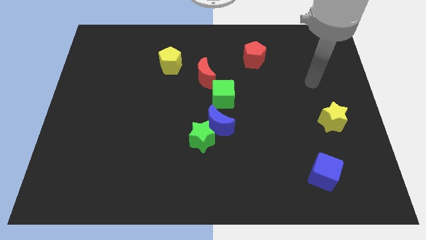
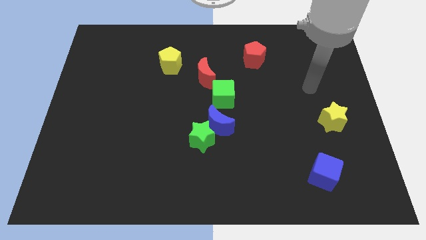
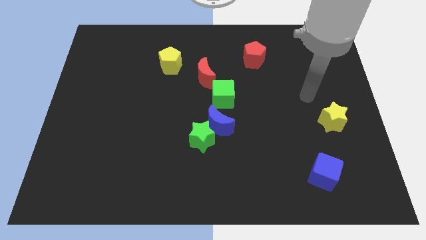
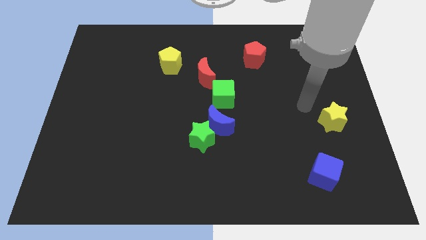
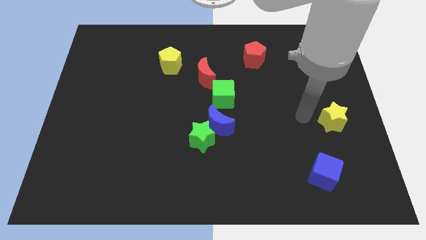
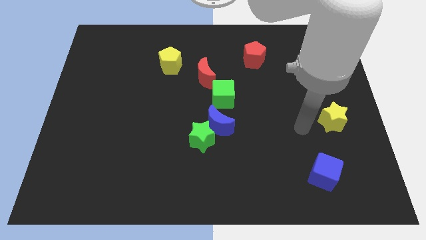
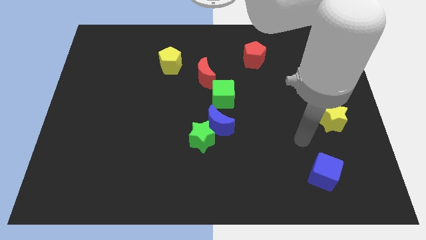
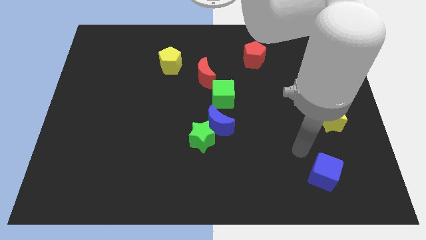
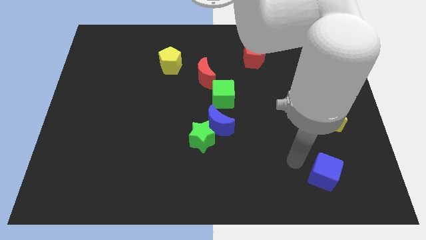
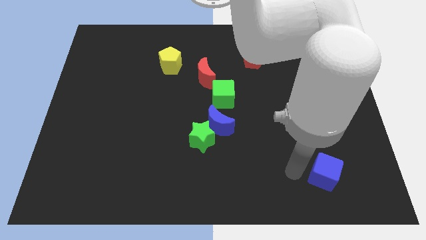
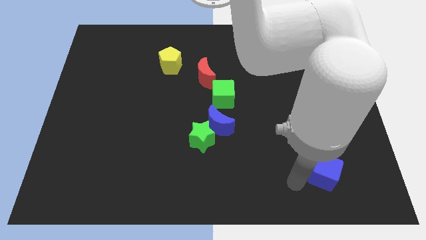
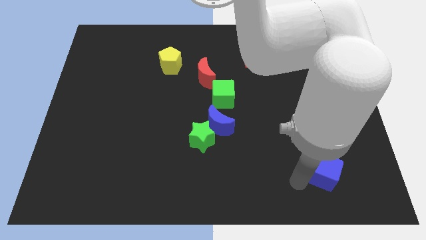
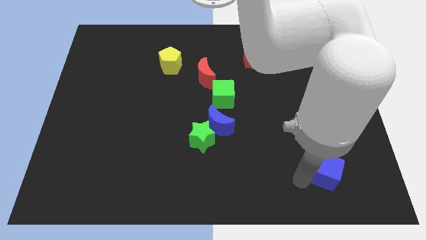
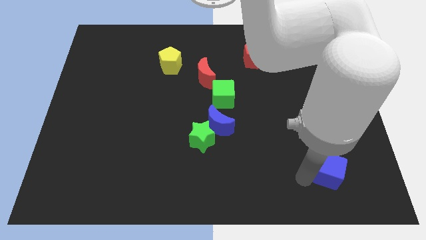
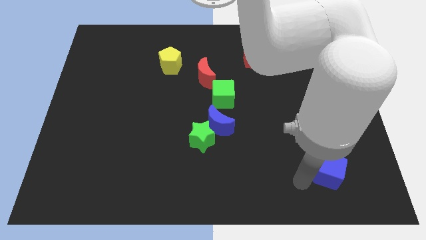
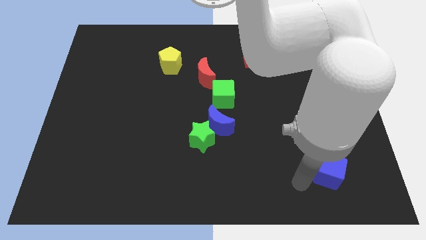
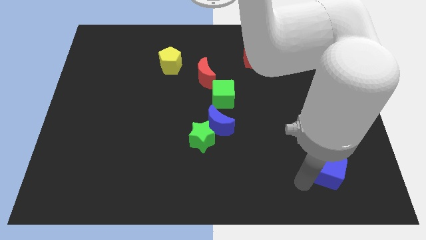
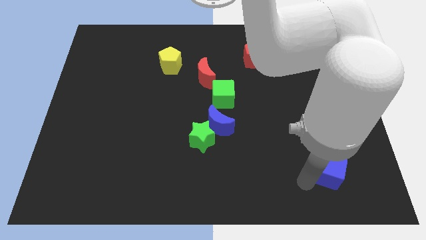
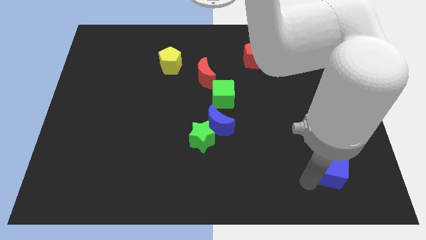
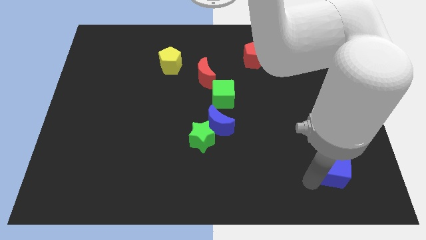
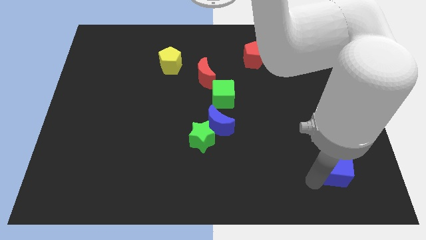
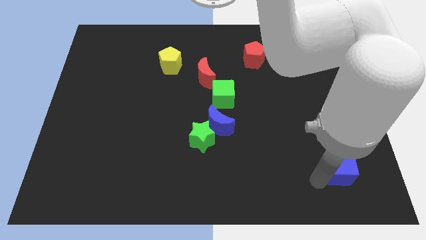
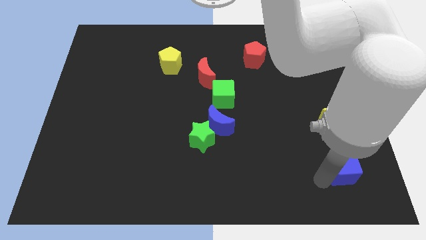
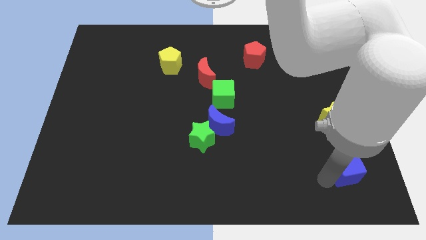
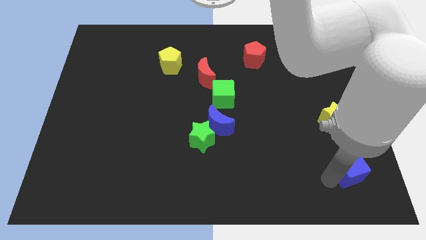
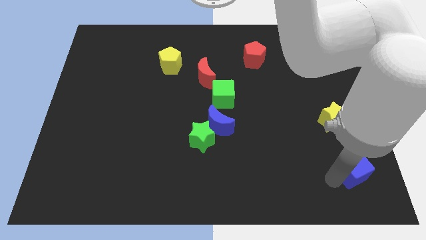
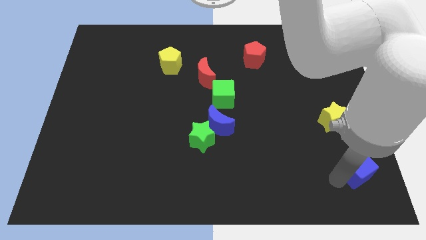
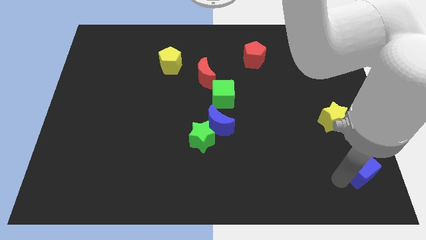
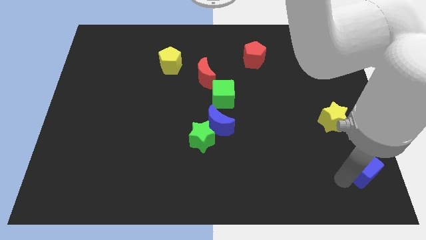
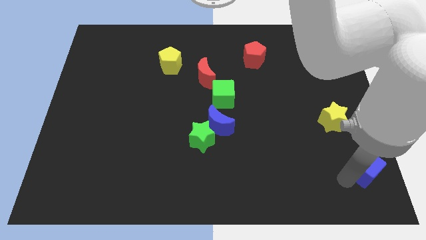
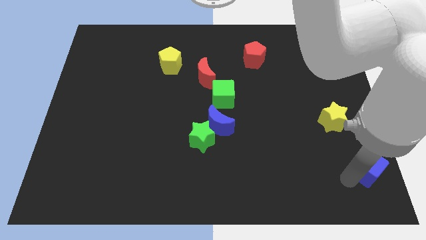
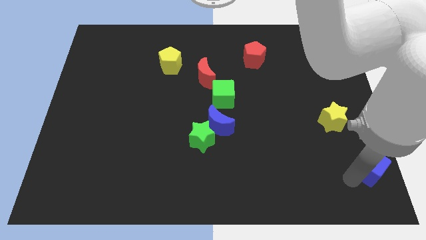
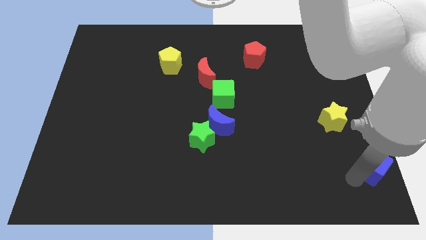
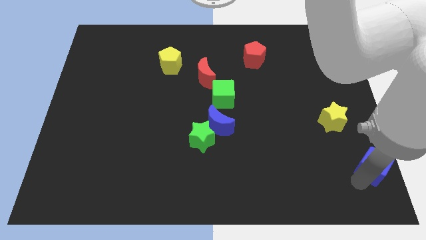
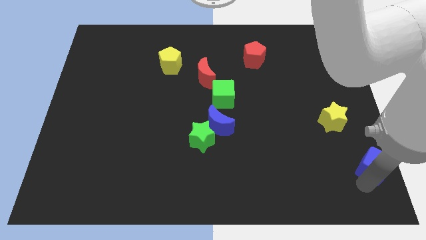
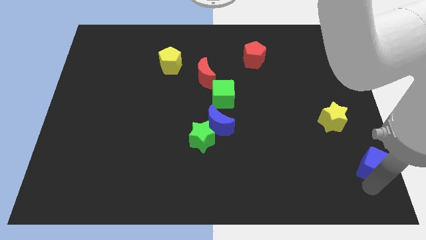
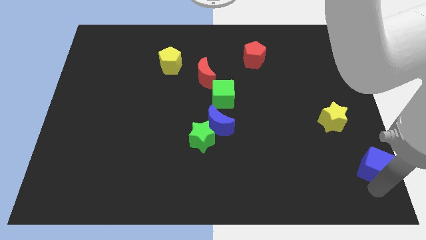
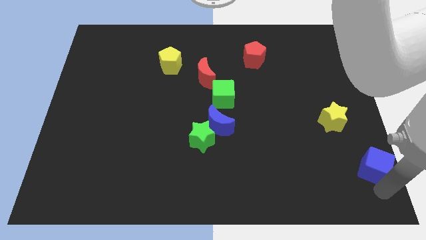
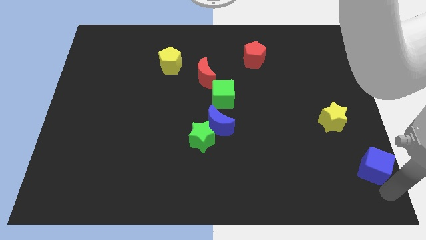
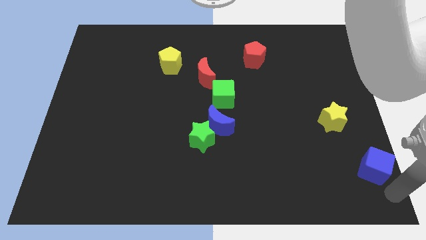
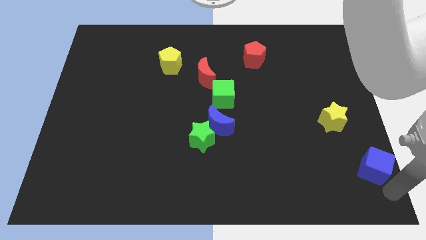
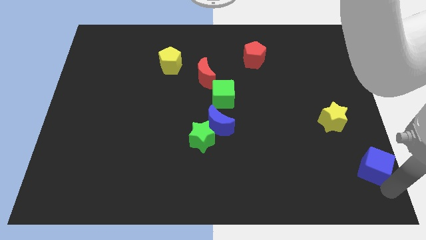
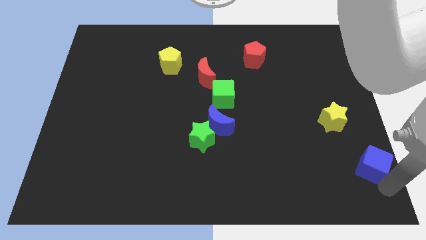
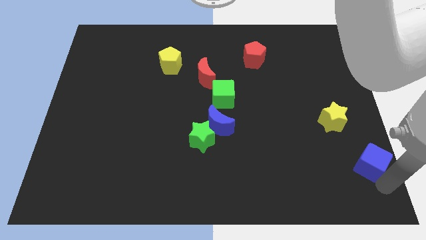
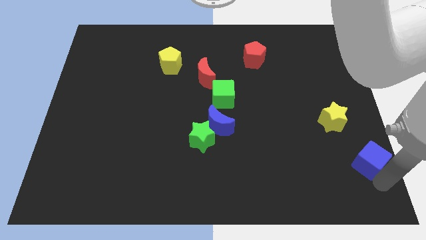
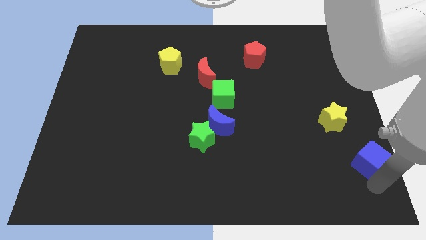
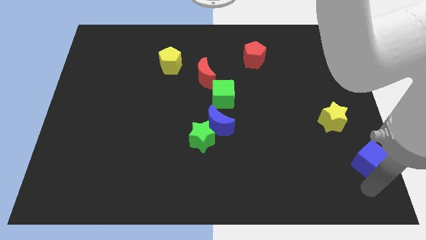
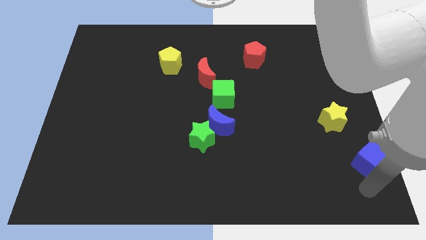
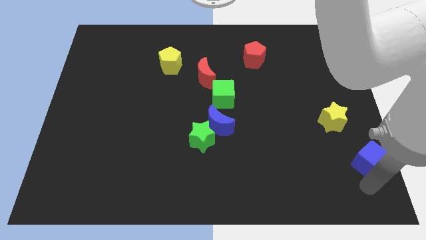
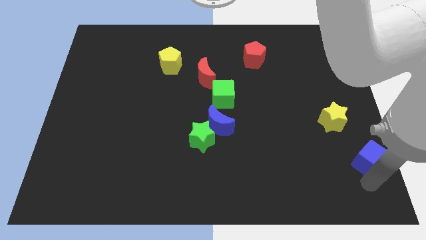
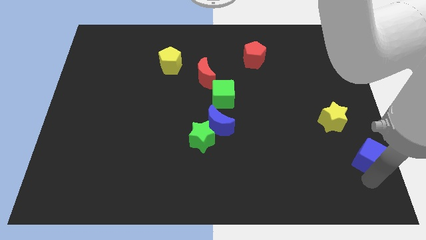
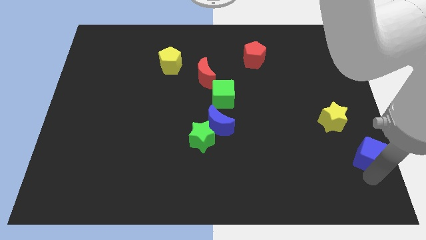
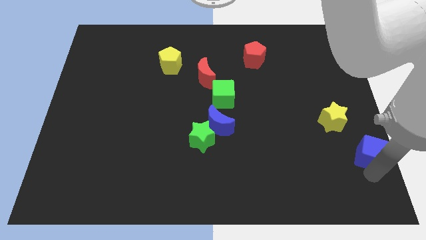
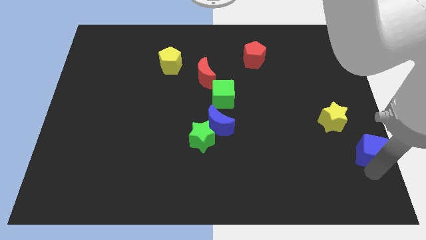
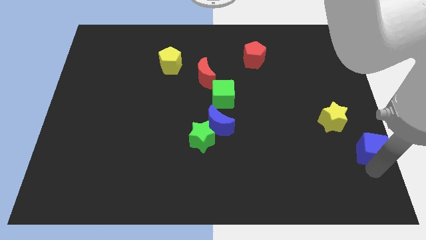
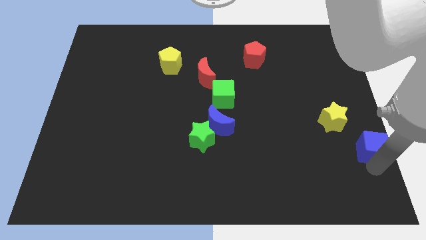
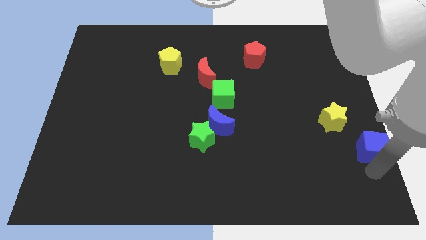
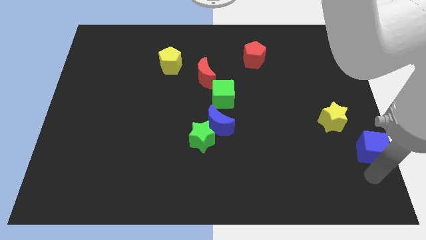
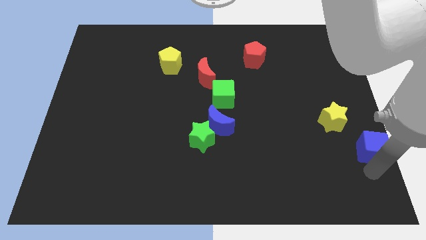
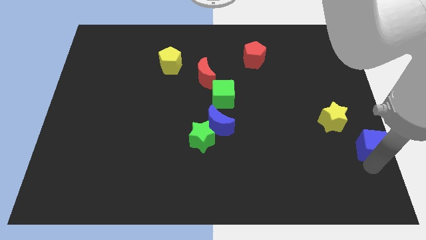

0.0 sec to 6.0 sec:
move the blue cube to the right side

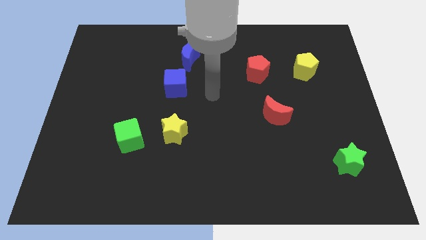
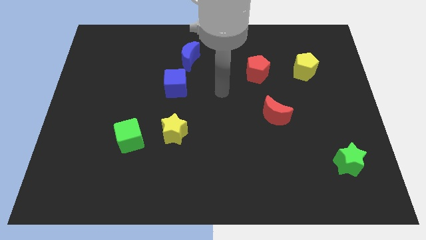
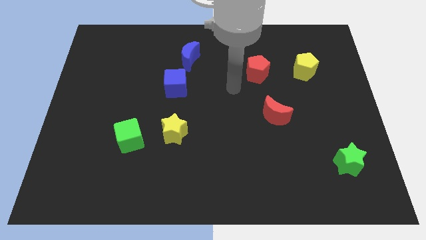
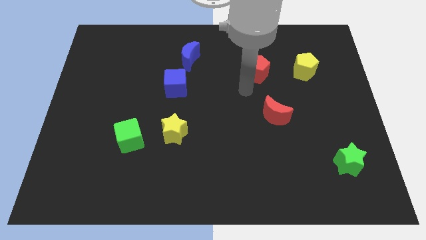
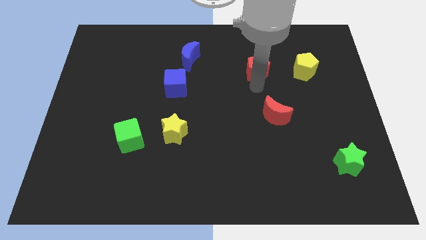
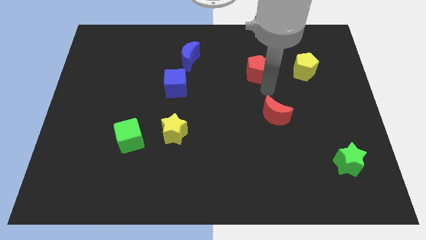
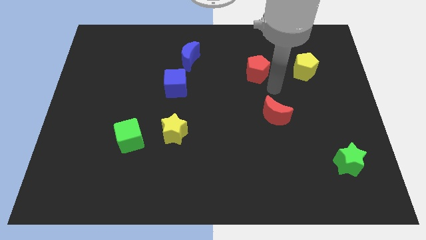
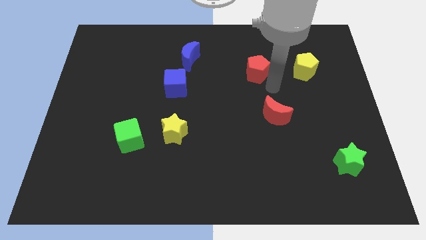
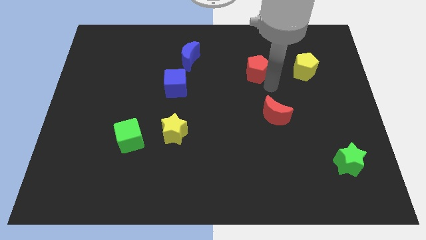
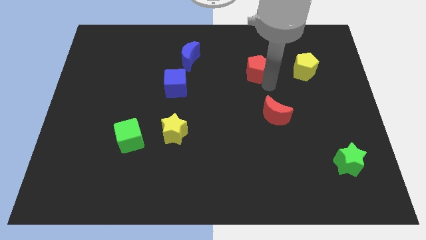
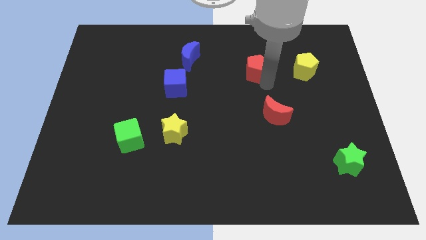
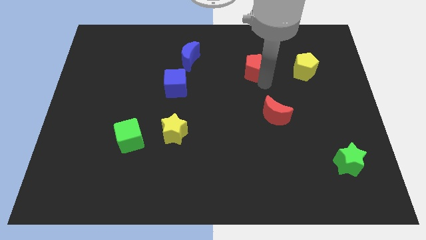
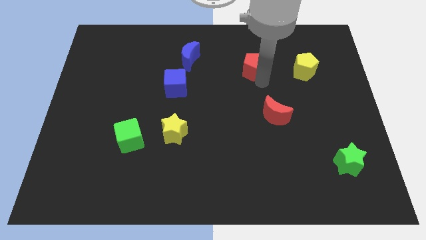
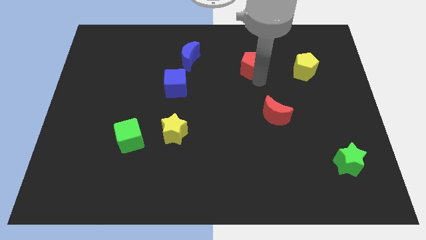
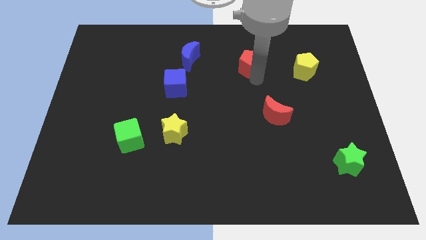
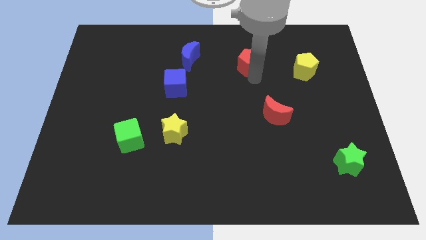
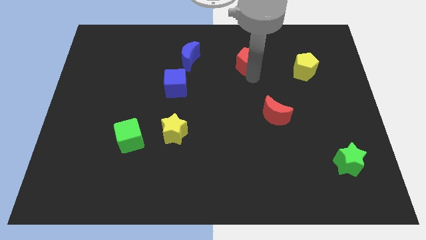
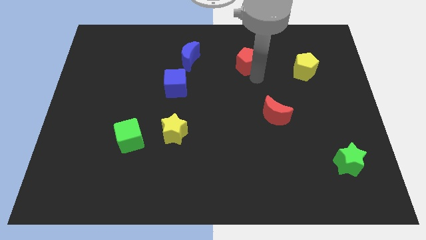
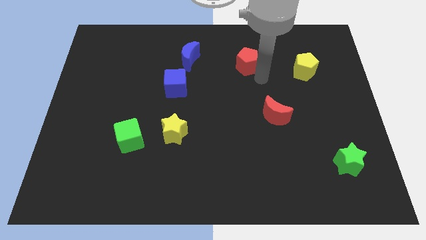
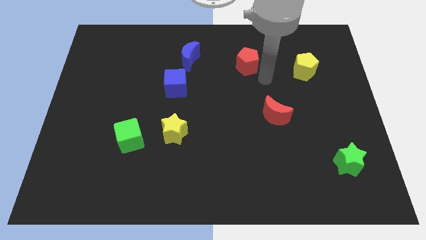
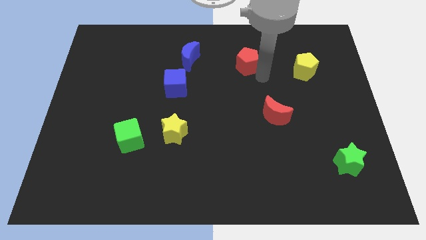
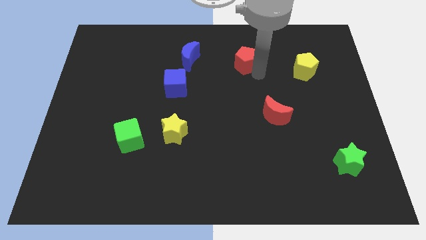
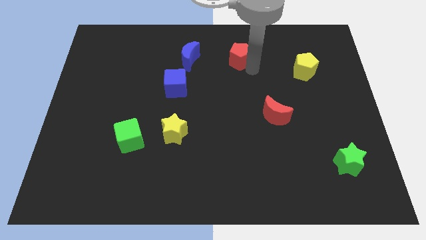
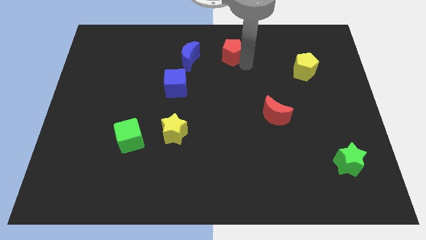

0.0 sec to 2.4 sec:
slide the red pentagon to the top
